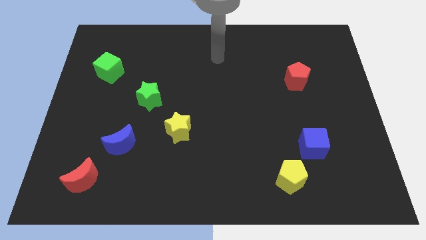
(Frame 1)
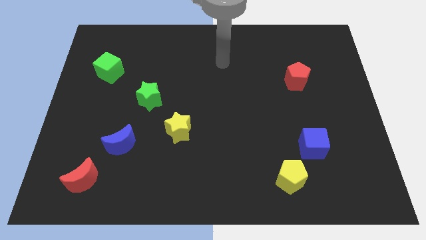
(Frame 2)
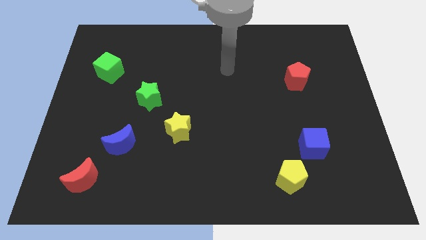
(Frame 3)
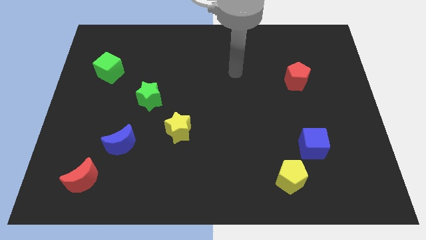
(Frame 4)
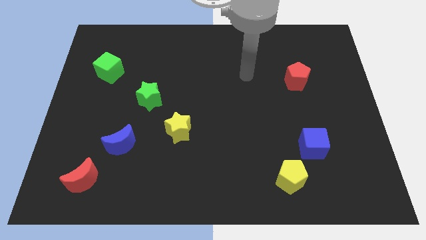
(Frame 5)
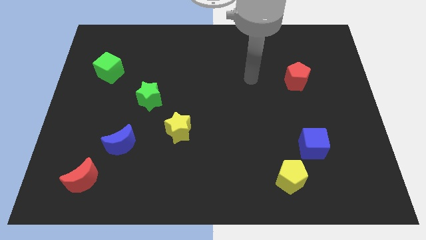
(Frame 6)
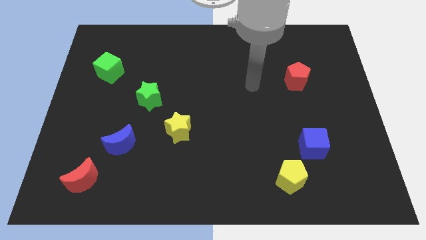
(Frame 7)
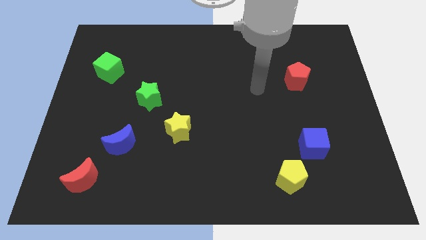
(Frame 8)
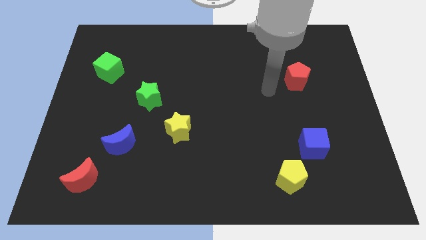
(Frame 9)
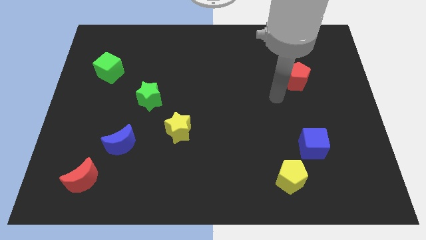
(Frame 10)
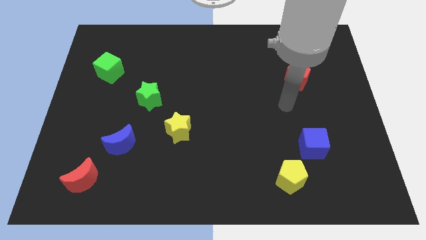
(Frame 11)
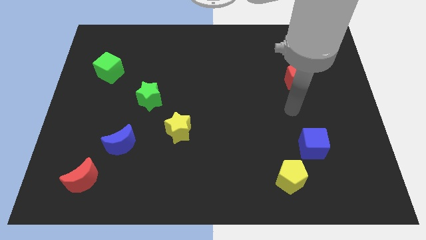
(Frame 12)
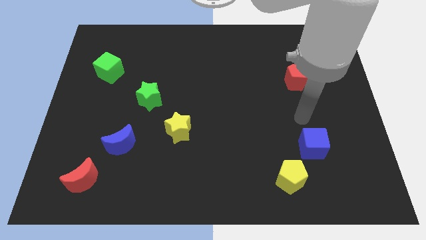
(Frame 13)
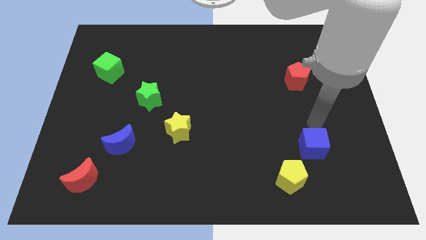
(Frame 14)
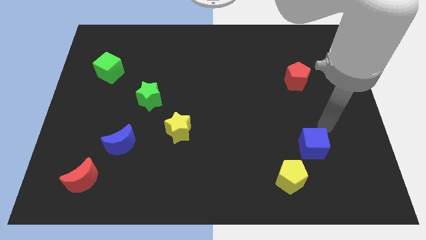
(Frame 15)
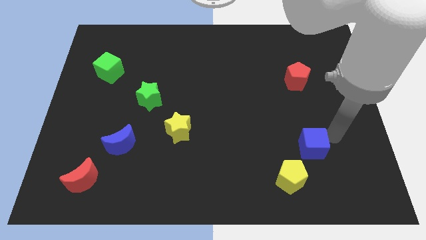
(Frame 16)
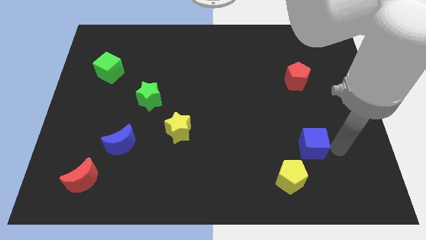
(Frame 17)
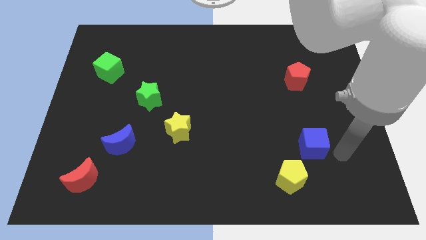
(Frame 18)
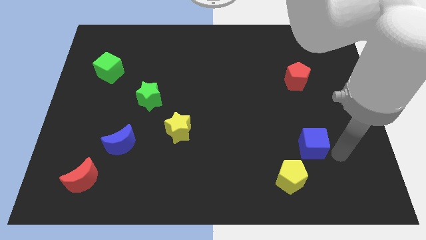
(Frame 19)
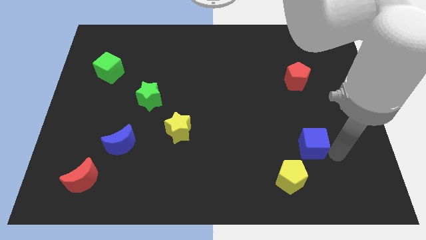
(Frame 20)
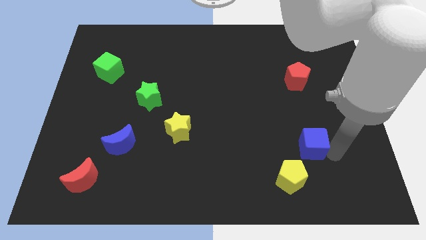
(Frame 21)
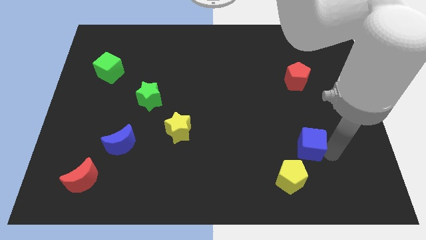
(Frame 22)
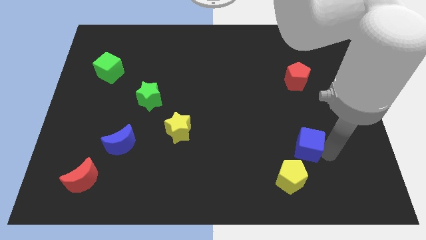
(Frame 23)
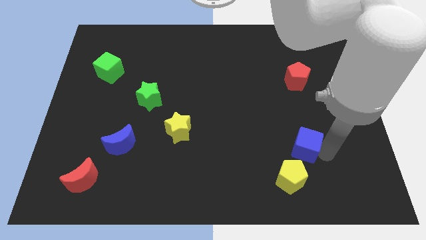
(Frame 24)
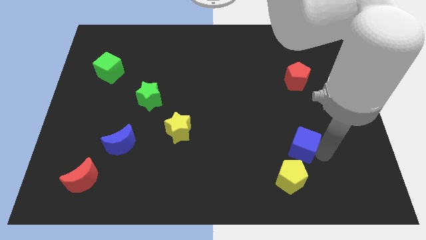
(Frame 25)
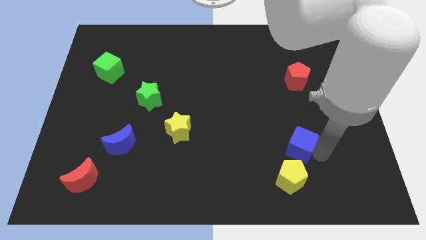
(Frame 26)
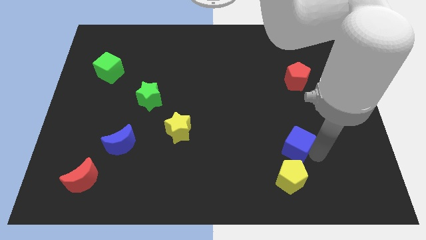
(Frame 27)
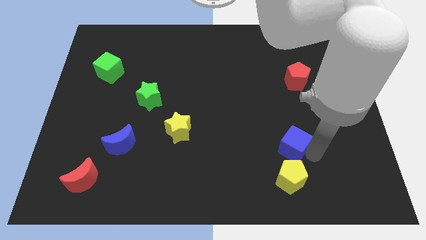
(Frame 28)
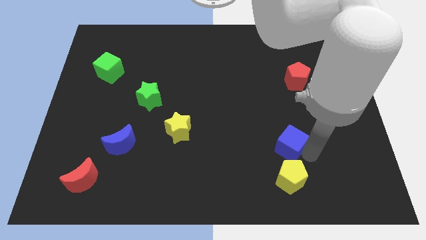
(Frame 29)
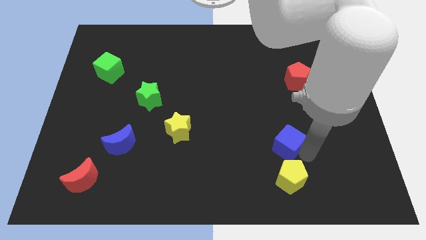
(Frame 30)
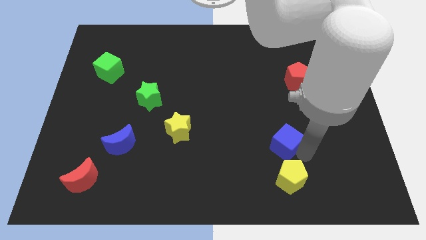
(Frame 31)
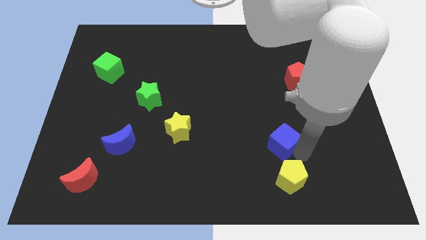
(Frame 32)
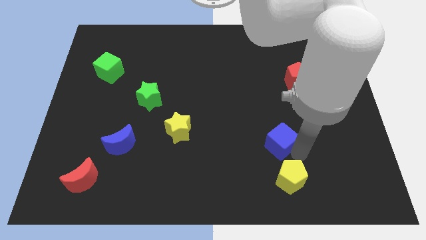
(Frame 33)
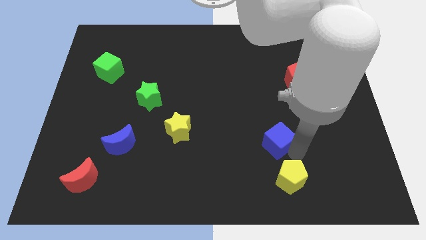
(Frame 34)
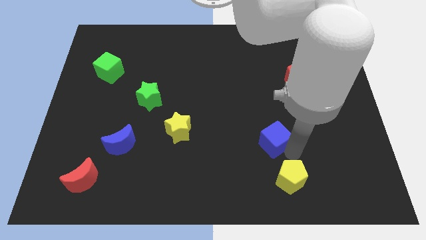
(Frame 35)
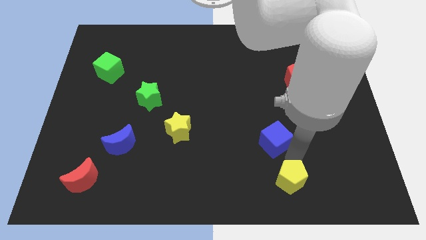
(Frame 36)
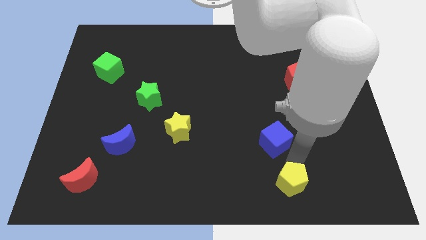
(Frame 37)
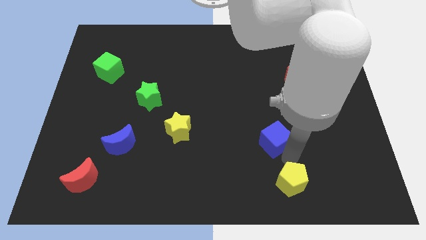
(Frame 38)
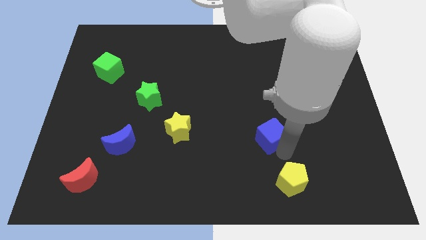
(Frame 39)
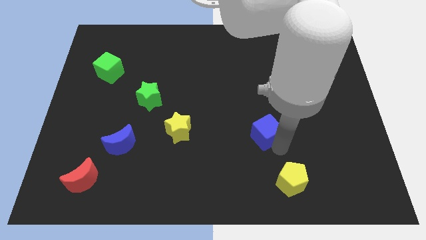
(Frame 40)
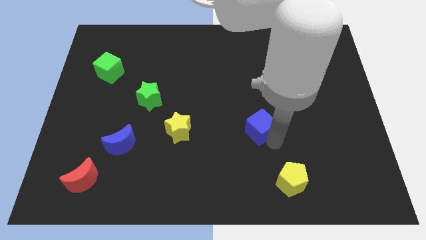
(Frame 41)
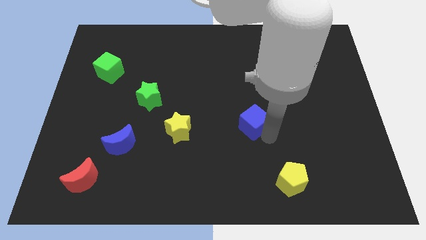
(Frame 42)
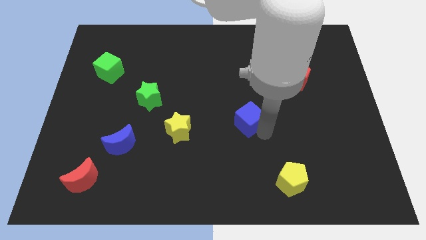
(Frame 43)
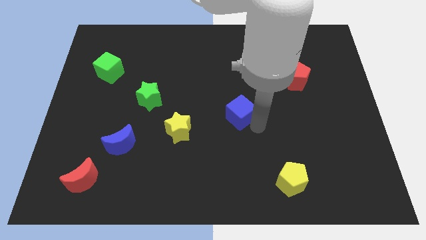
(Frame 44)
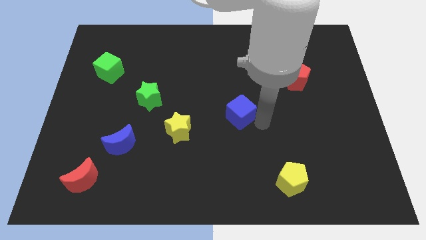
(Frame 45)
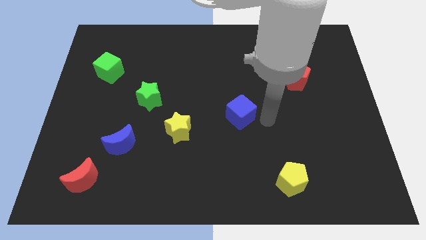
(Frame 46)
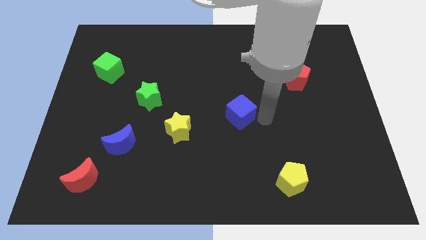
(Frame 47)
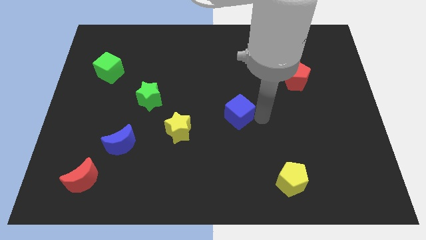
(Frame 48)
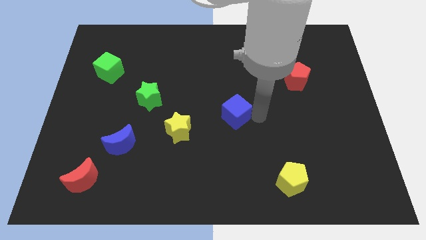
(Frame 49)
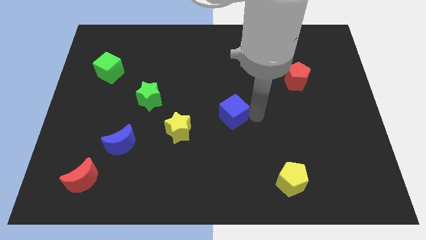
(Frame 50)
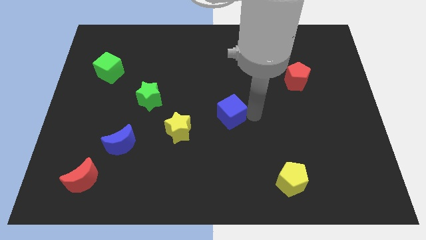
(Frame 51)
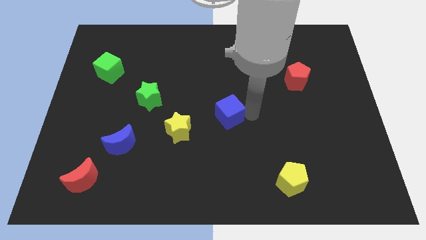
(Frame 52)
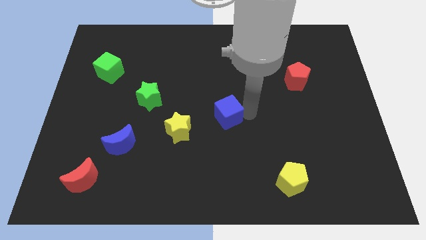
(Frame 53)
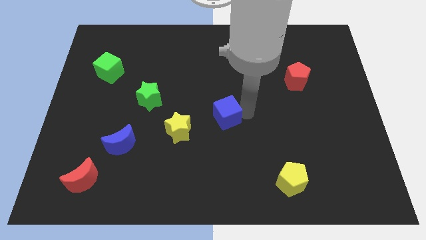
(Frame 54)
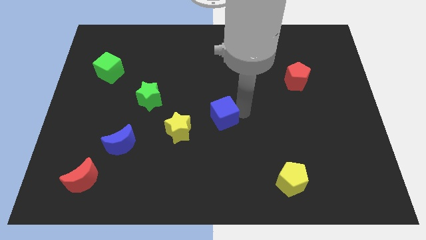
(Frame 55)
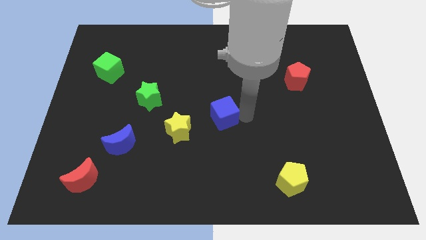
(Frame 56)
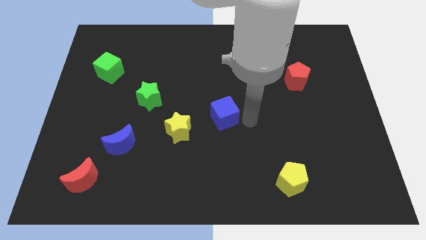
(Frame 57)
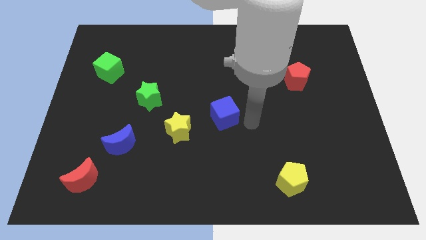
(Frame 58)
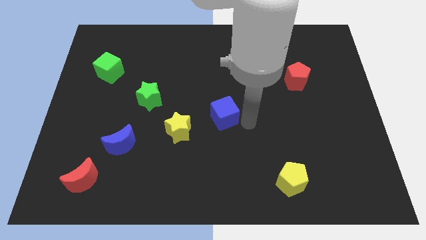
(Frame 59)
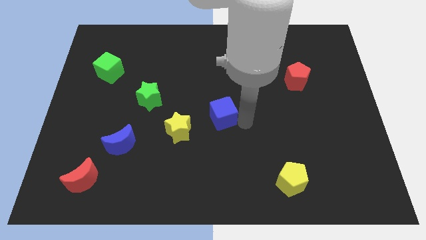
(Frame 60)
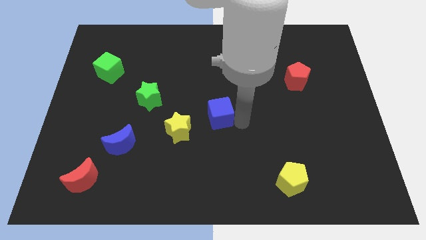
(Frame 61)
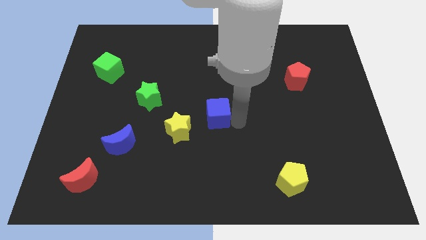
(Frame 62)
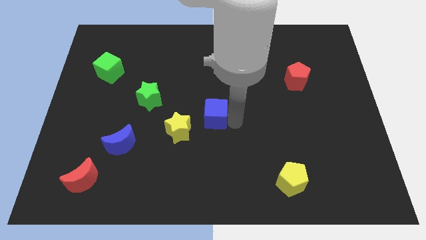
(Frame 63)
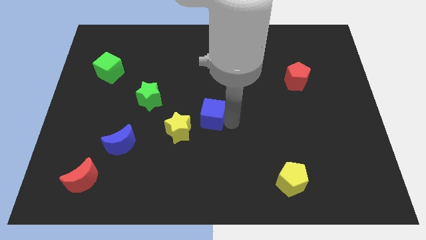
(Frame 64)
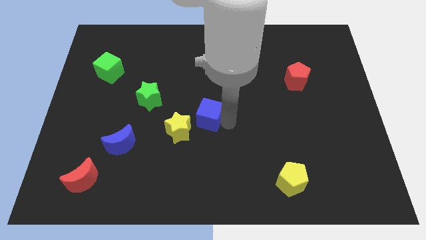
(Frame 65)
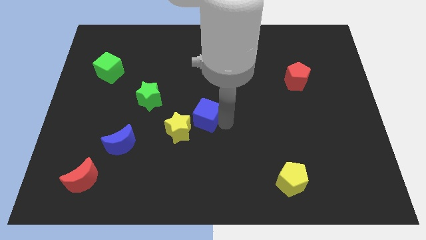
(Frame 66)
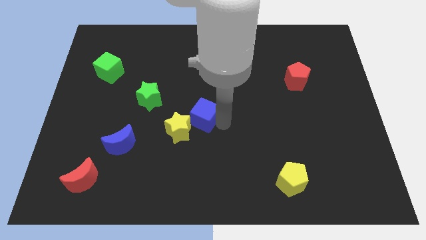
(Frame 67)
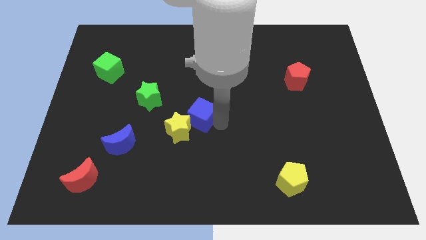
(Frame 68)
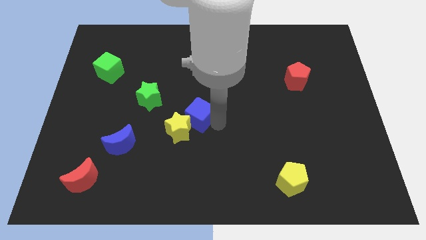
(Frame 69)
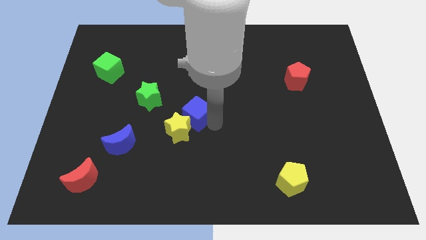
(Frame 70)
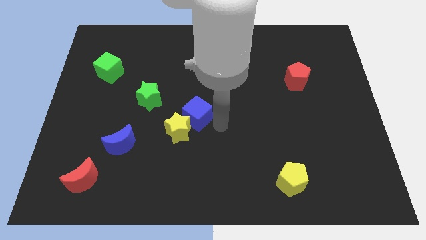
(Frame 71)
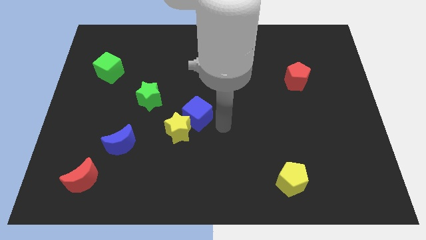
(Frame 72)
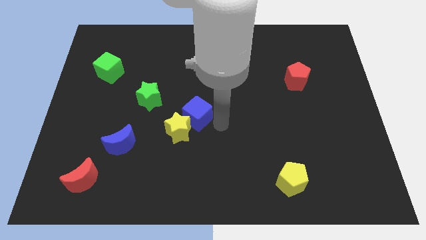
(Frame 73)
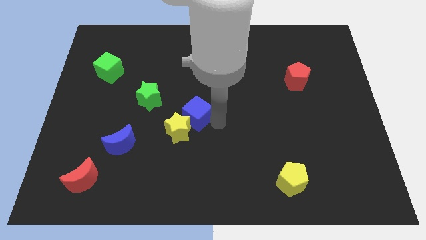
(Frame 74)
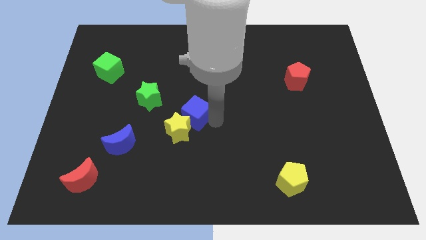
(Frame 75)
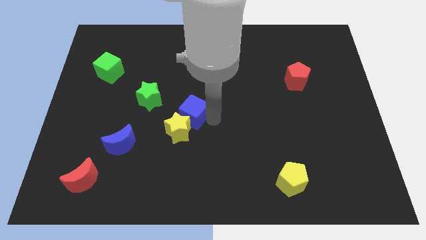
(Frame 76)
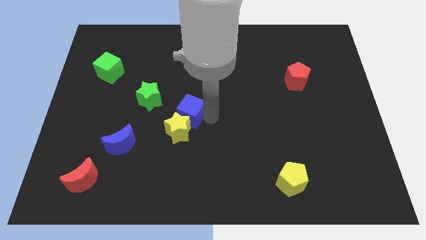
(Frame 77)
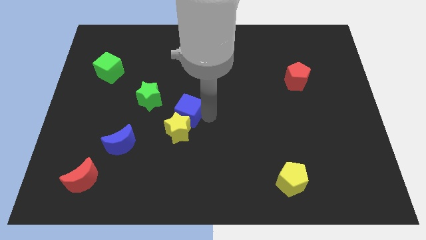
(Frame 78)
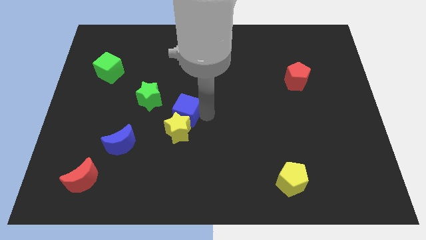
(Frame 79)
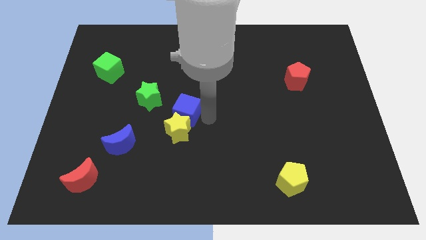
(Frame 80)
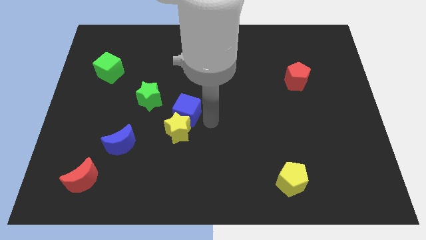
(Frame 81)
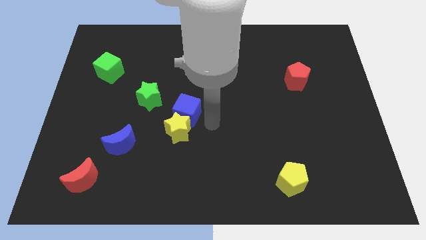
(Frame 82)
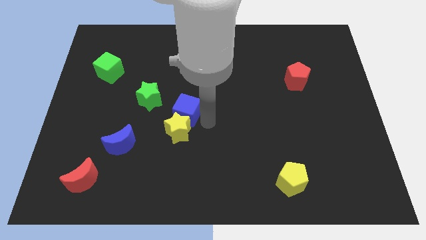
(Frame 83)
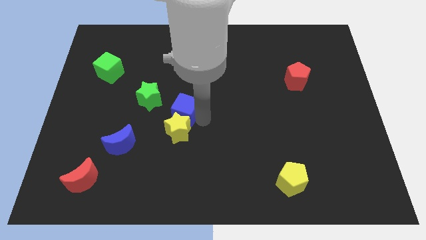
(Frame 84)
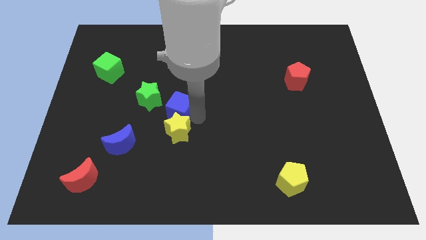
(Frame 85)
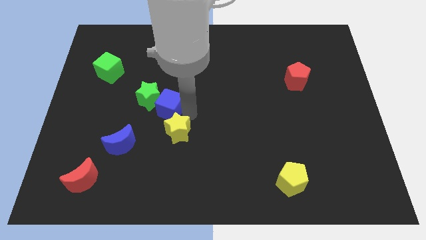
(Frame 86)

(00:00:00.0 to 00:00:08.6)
put the blue cube close to the green star
